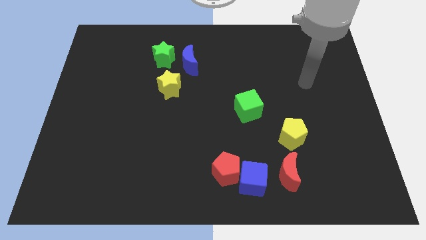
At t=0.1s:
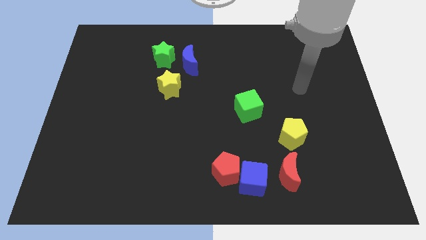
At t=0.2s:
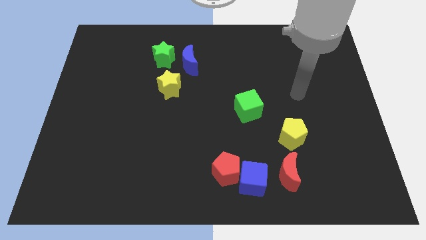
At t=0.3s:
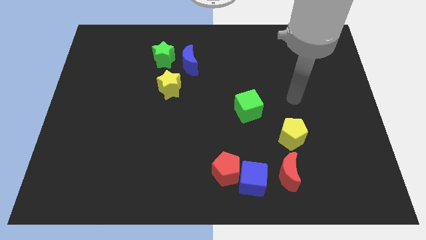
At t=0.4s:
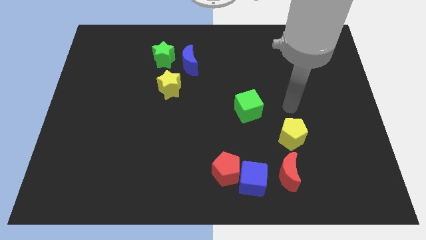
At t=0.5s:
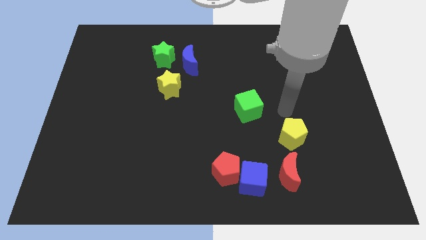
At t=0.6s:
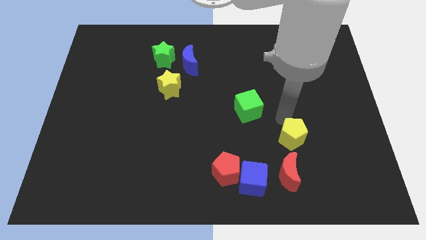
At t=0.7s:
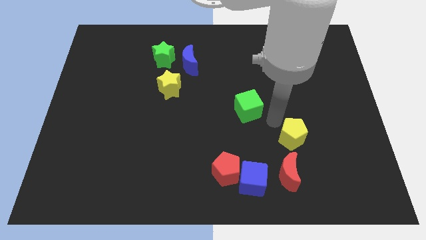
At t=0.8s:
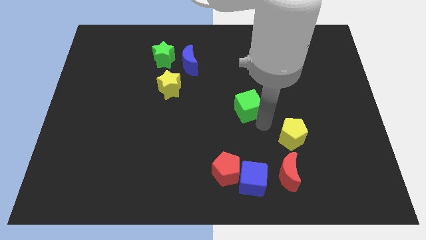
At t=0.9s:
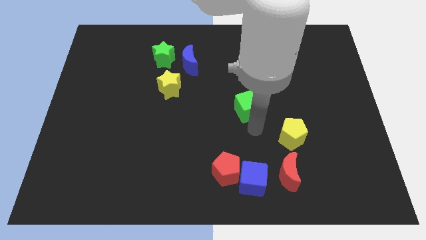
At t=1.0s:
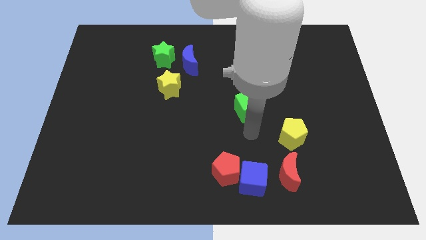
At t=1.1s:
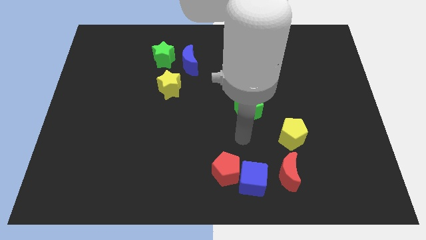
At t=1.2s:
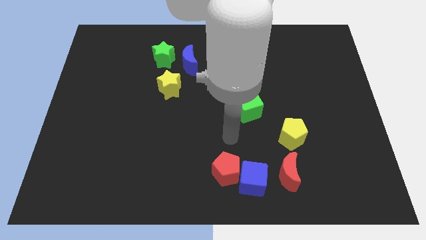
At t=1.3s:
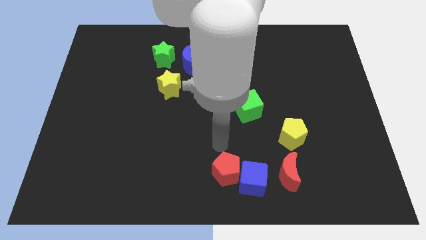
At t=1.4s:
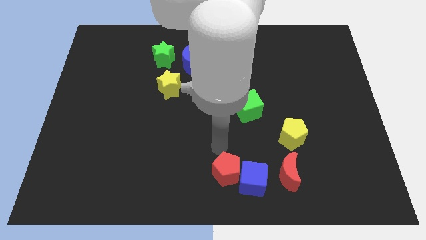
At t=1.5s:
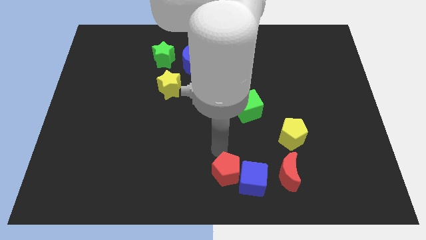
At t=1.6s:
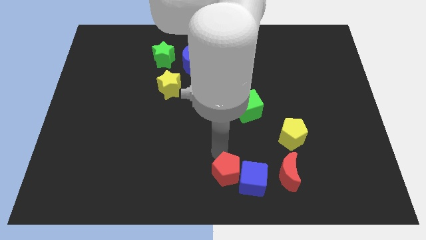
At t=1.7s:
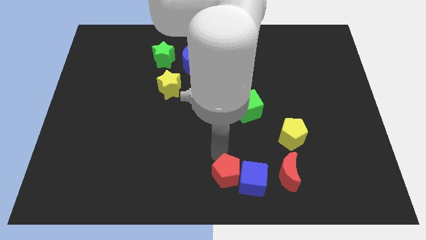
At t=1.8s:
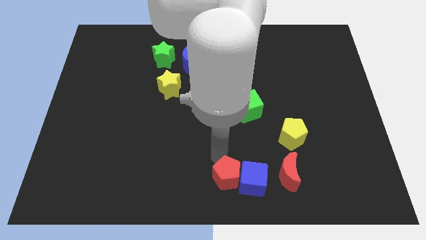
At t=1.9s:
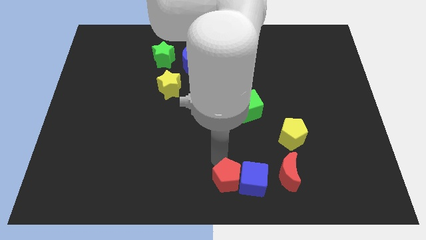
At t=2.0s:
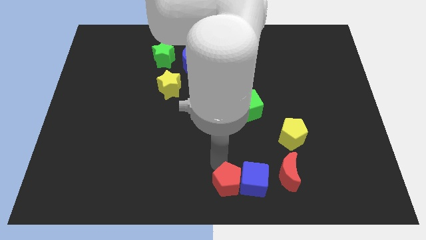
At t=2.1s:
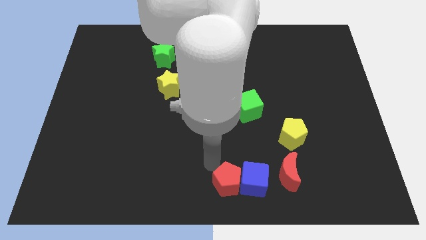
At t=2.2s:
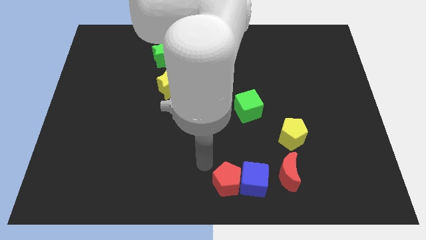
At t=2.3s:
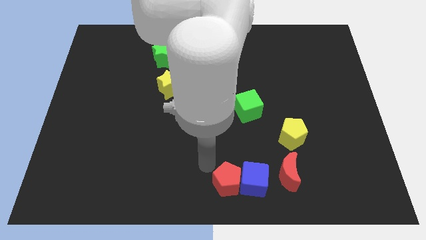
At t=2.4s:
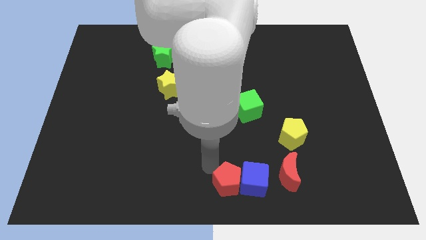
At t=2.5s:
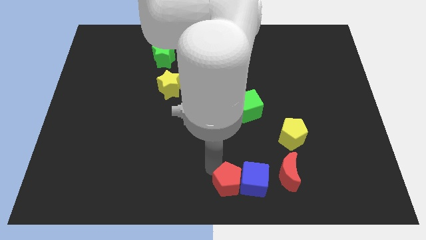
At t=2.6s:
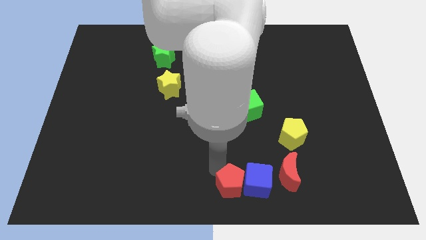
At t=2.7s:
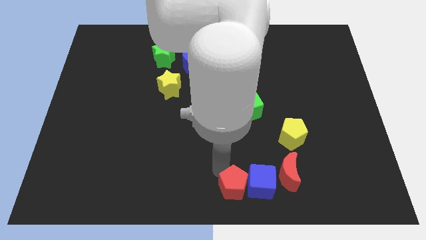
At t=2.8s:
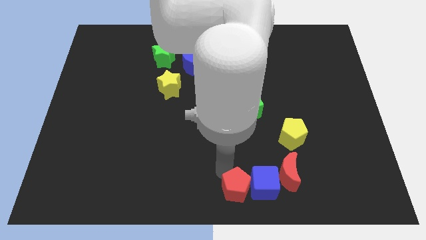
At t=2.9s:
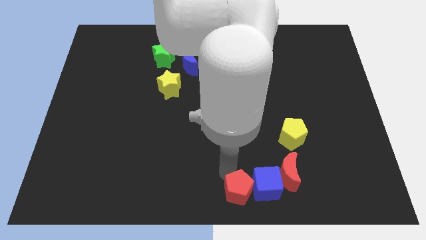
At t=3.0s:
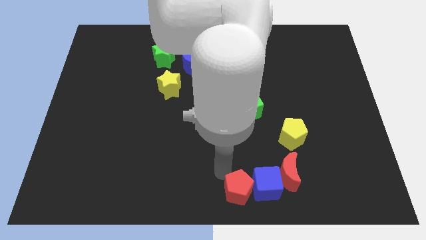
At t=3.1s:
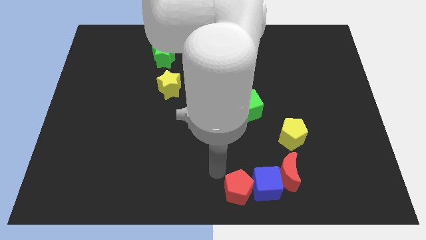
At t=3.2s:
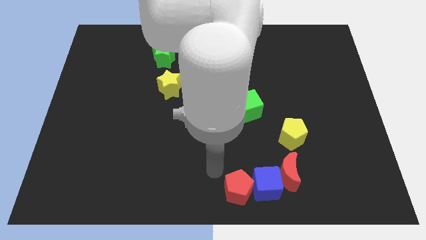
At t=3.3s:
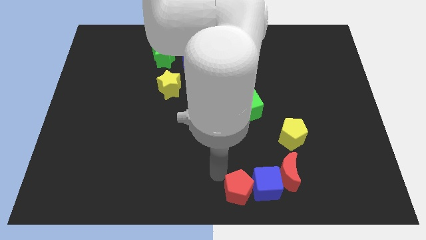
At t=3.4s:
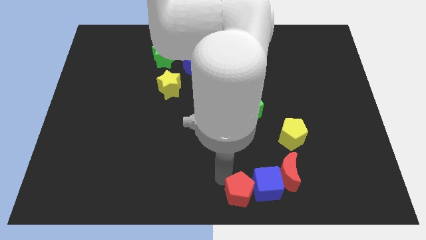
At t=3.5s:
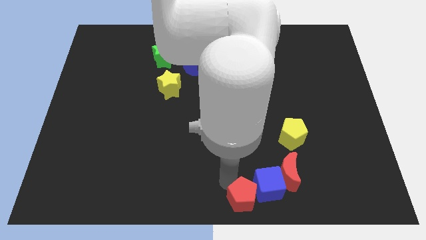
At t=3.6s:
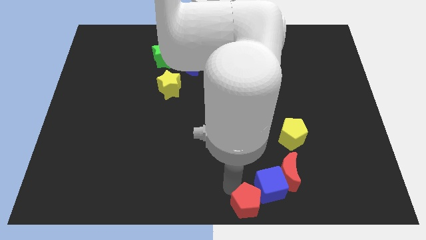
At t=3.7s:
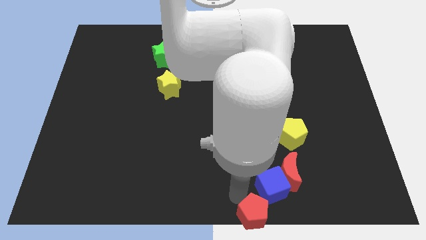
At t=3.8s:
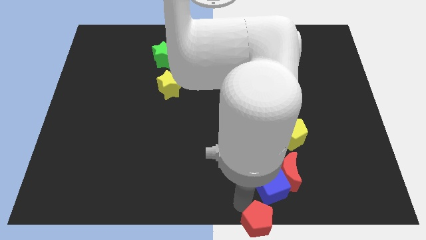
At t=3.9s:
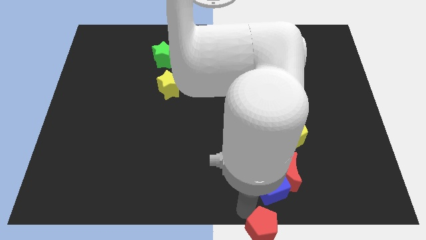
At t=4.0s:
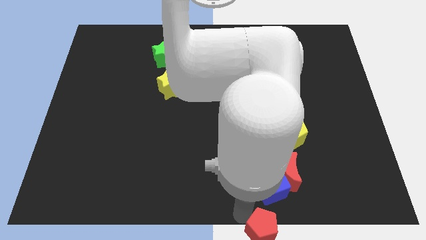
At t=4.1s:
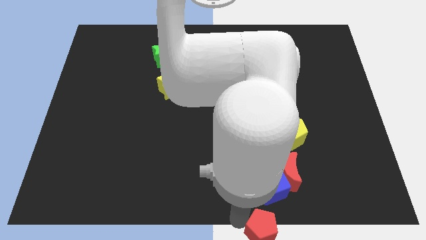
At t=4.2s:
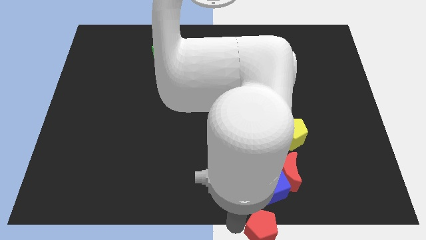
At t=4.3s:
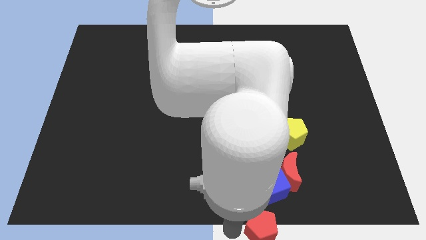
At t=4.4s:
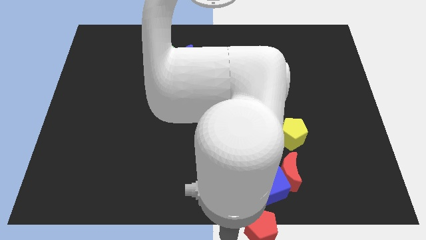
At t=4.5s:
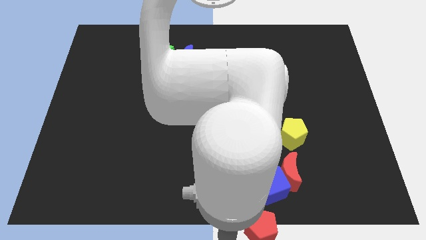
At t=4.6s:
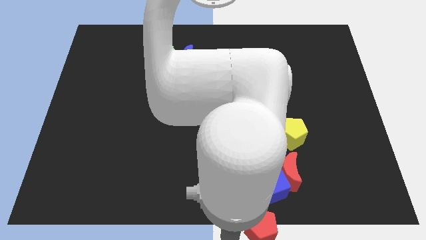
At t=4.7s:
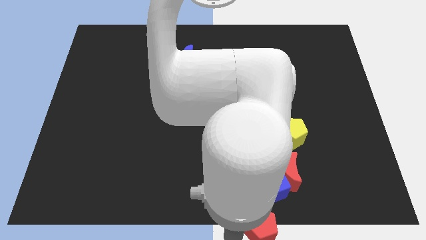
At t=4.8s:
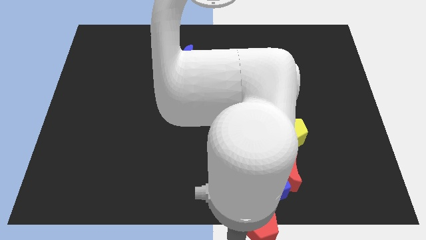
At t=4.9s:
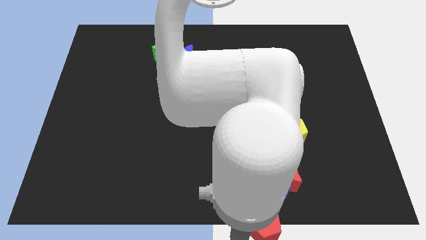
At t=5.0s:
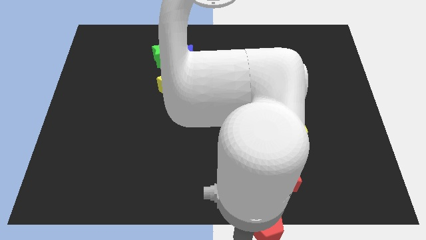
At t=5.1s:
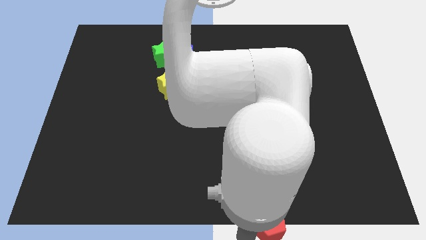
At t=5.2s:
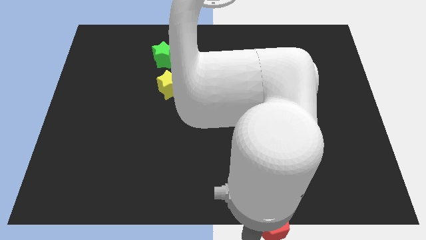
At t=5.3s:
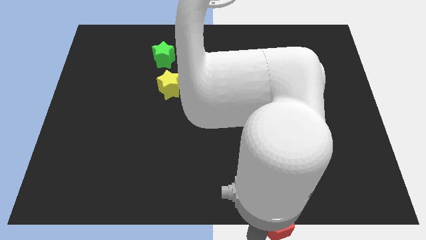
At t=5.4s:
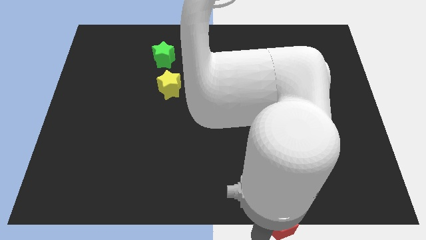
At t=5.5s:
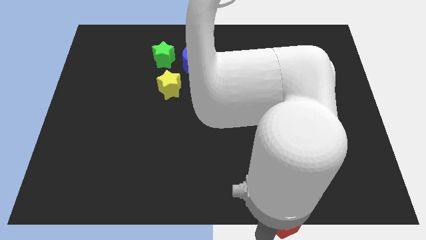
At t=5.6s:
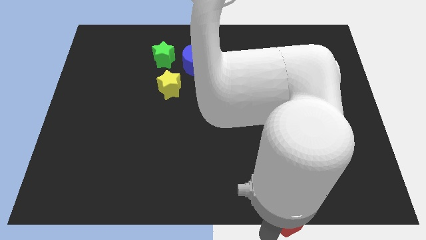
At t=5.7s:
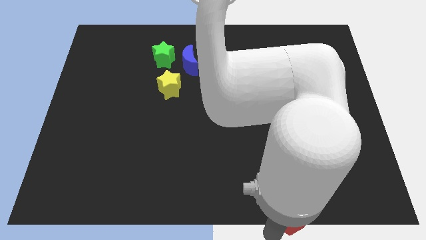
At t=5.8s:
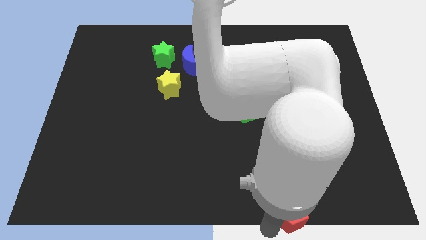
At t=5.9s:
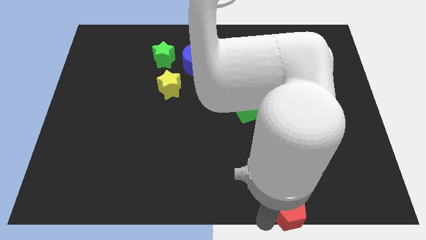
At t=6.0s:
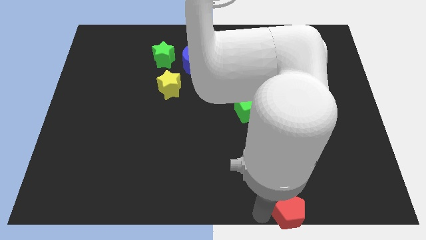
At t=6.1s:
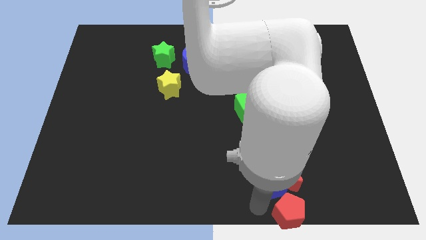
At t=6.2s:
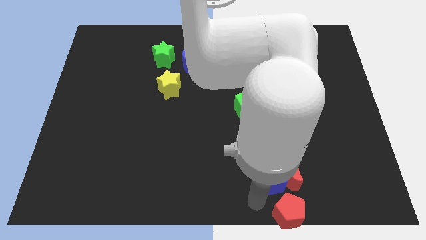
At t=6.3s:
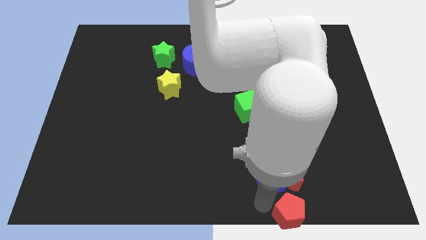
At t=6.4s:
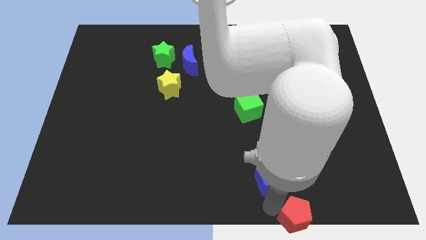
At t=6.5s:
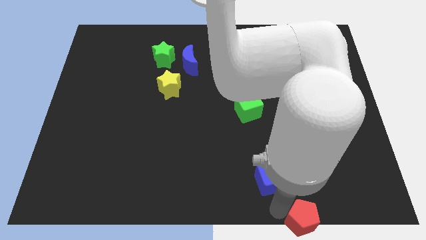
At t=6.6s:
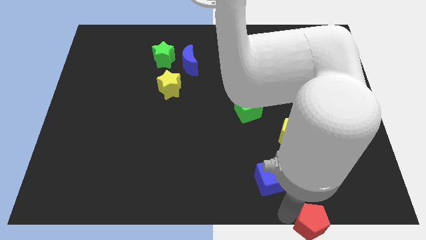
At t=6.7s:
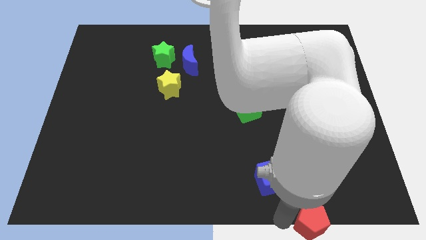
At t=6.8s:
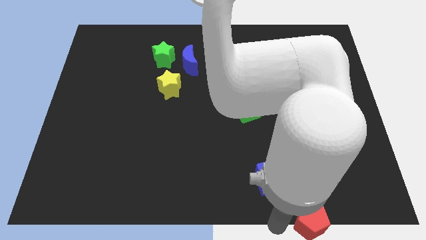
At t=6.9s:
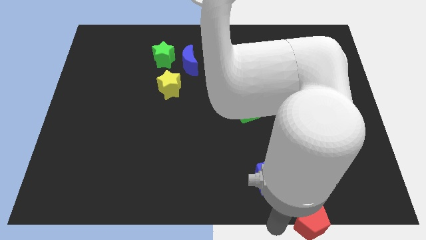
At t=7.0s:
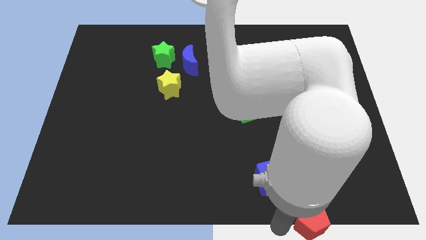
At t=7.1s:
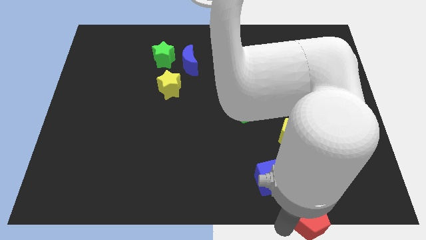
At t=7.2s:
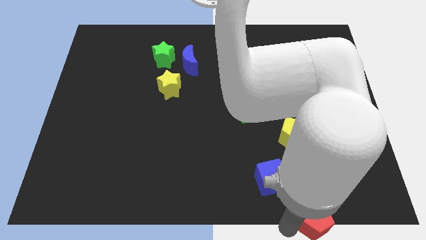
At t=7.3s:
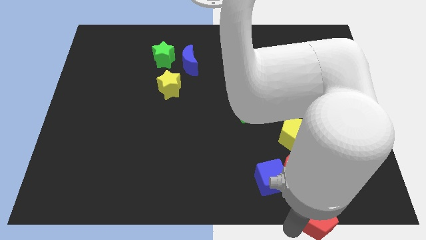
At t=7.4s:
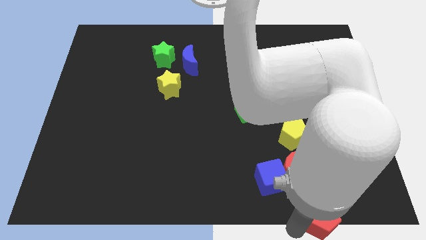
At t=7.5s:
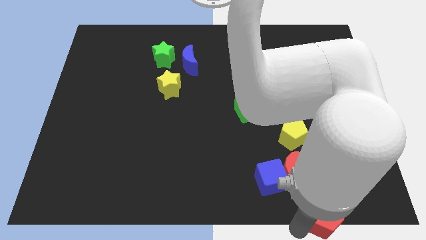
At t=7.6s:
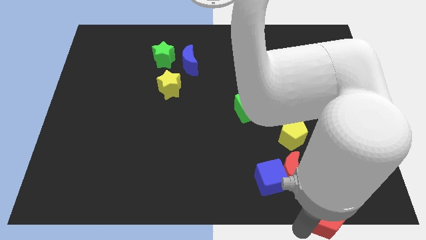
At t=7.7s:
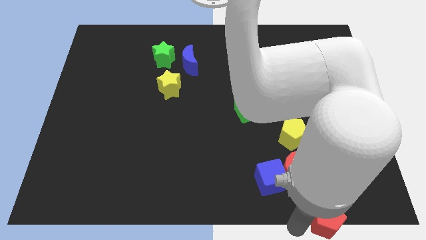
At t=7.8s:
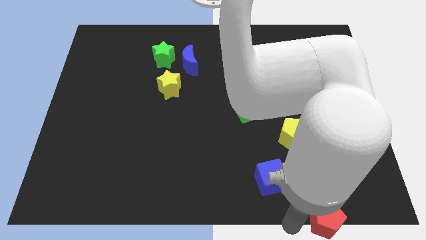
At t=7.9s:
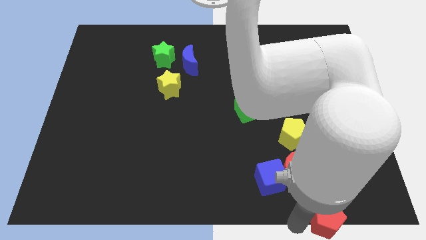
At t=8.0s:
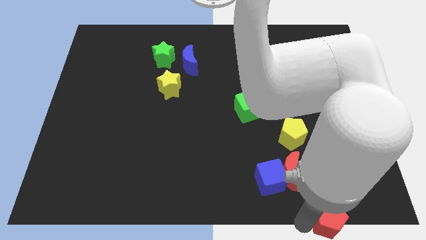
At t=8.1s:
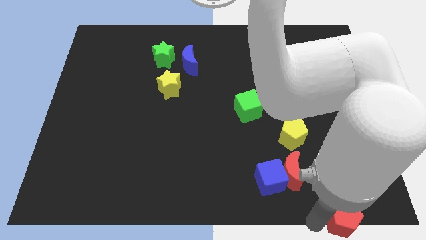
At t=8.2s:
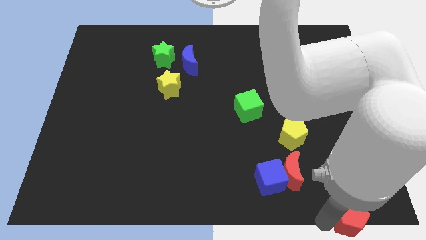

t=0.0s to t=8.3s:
move the red pentagon to the bottom right of the board
